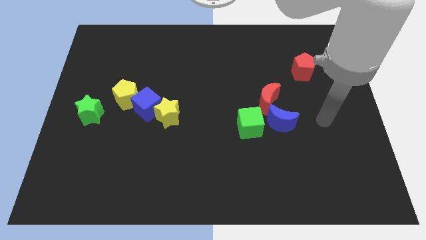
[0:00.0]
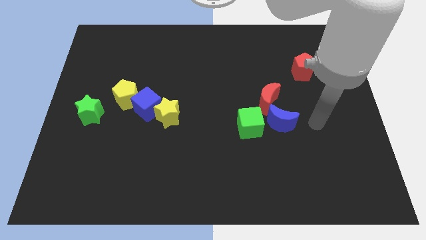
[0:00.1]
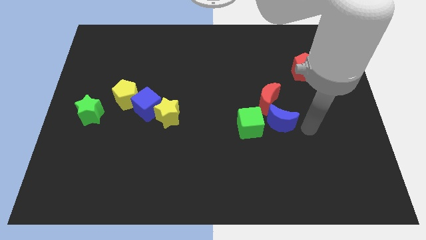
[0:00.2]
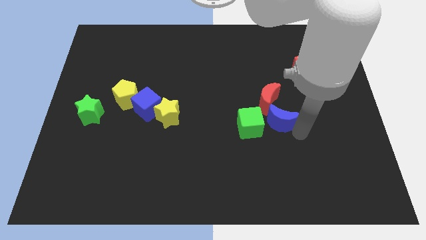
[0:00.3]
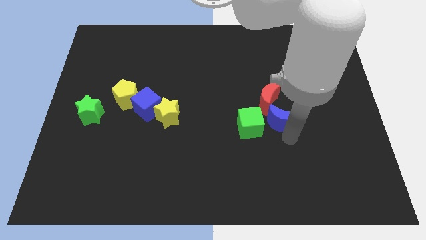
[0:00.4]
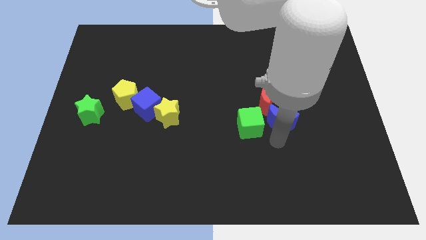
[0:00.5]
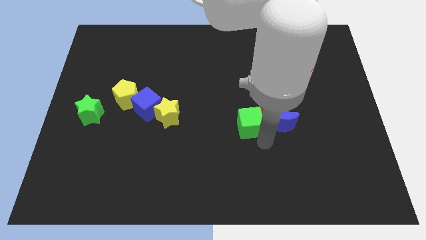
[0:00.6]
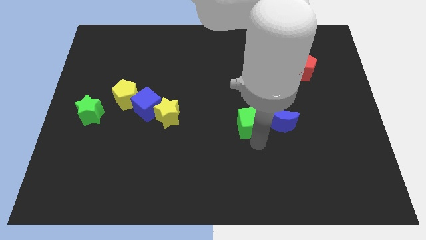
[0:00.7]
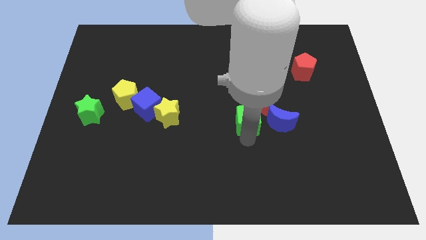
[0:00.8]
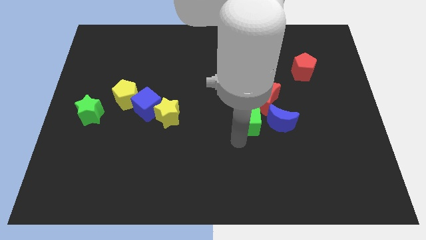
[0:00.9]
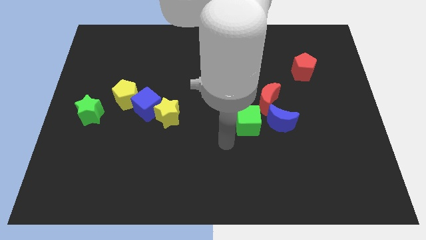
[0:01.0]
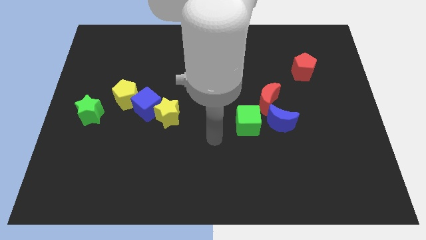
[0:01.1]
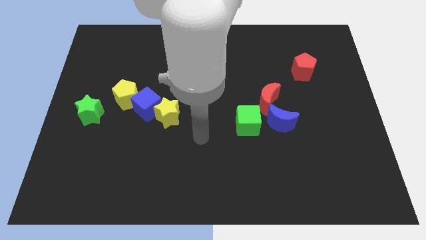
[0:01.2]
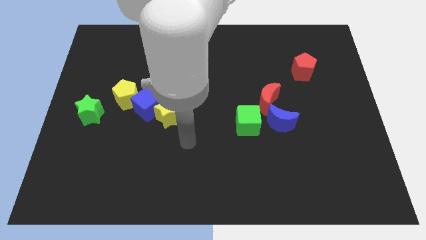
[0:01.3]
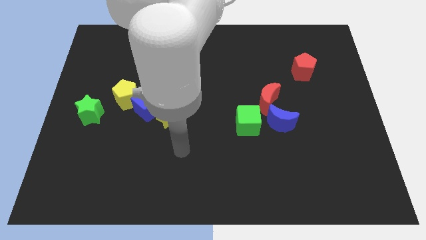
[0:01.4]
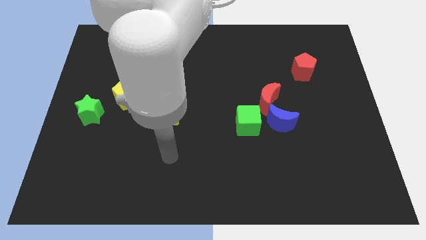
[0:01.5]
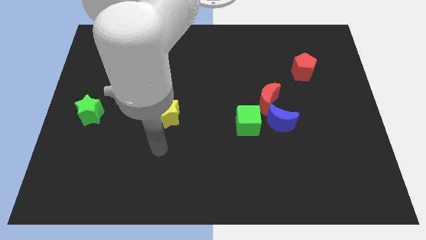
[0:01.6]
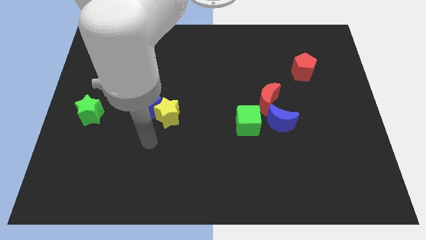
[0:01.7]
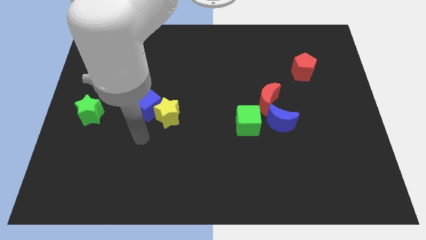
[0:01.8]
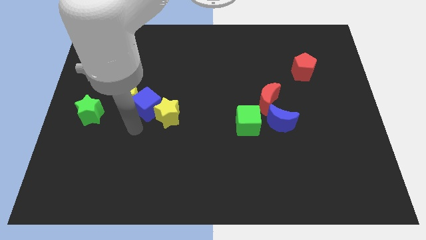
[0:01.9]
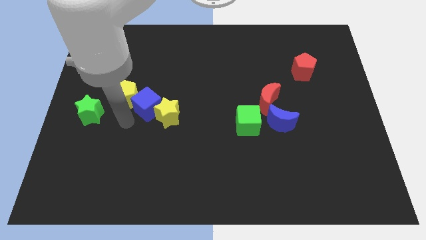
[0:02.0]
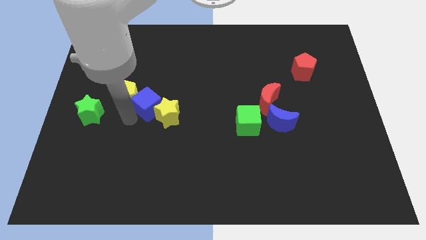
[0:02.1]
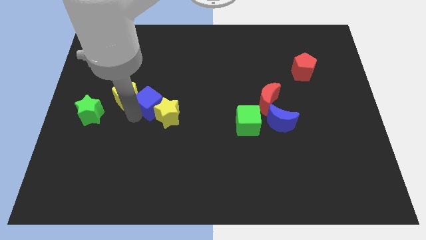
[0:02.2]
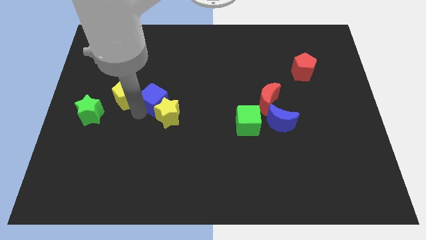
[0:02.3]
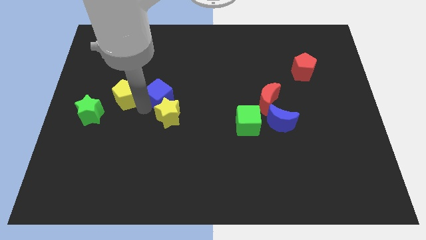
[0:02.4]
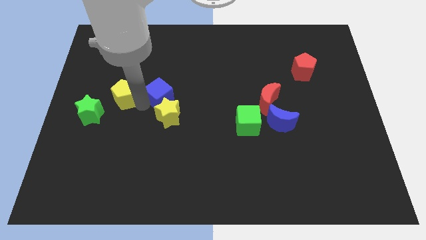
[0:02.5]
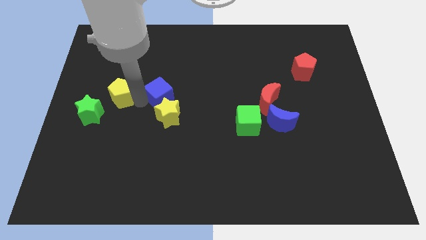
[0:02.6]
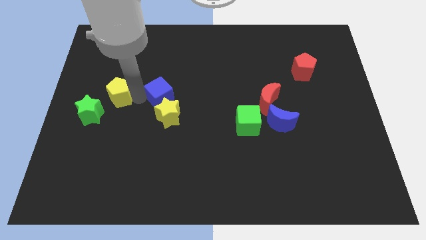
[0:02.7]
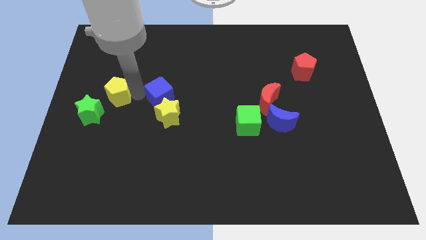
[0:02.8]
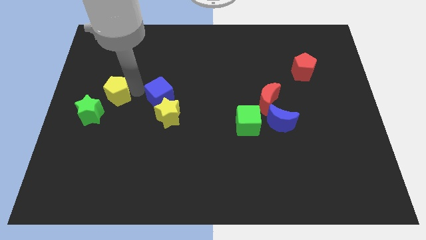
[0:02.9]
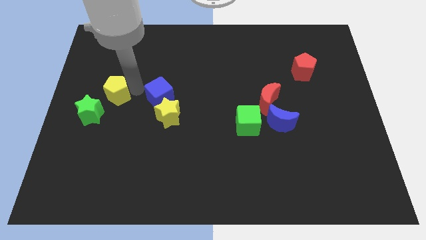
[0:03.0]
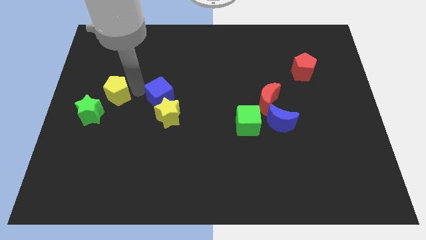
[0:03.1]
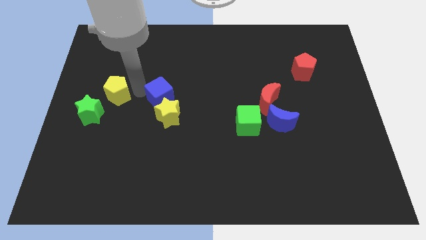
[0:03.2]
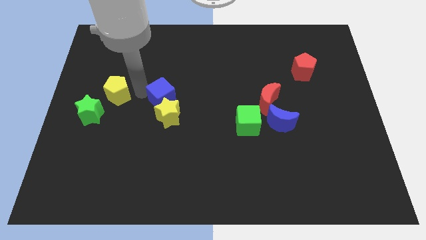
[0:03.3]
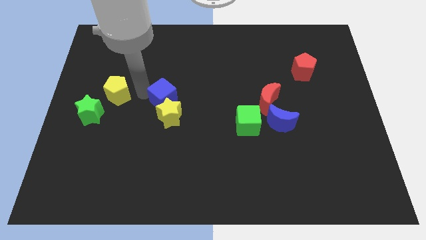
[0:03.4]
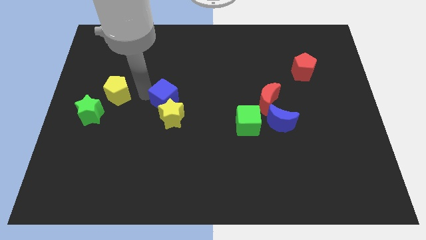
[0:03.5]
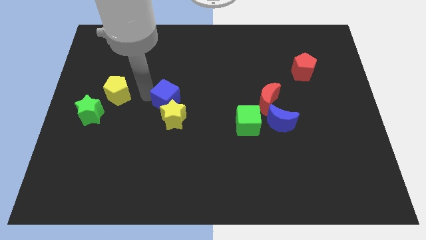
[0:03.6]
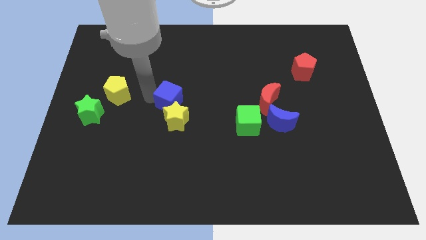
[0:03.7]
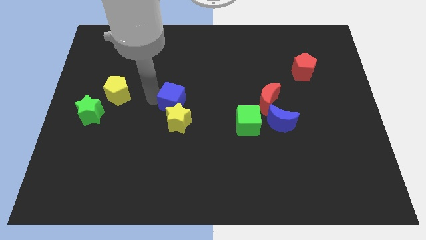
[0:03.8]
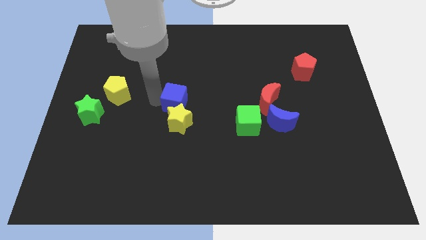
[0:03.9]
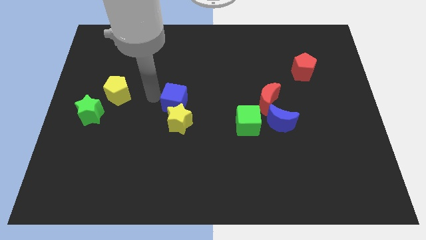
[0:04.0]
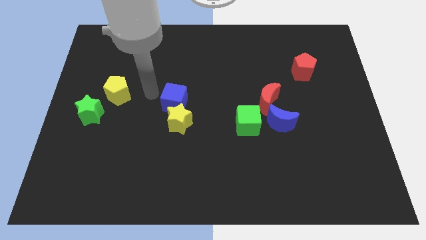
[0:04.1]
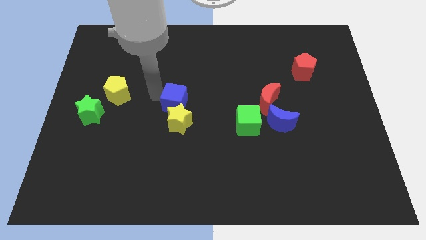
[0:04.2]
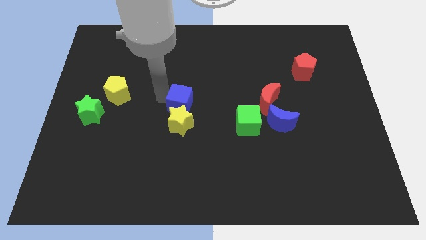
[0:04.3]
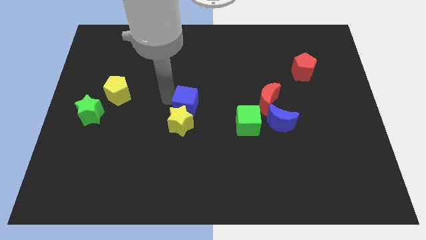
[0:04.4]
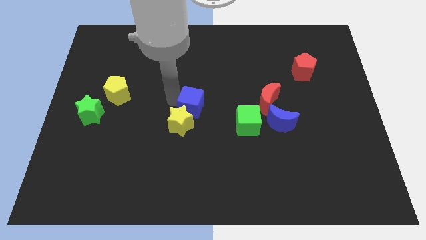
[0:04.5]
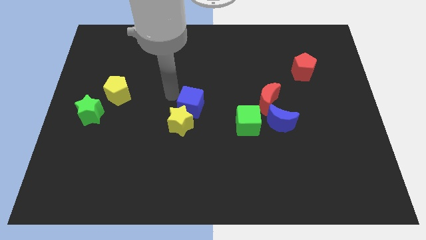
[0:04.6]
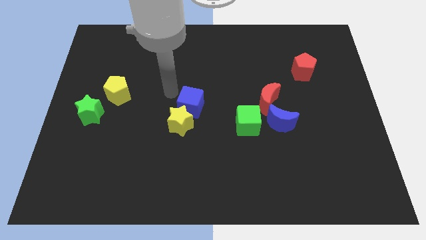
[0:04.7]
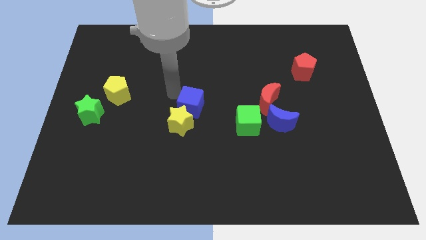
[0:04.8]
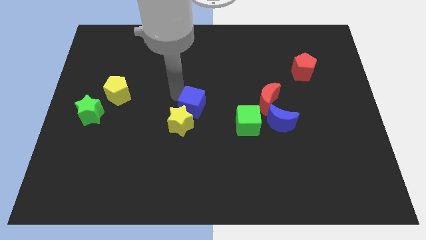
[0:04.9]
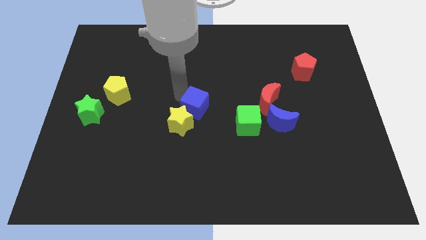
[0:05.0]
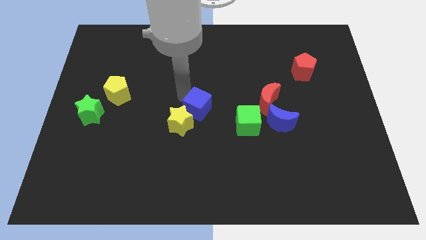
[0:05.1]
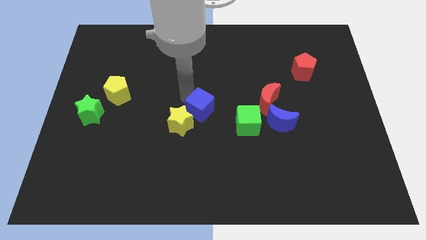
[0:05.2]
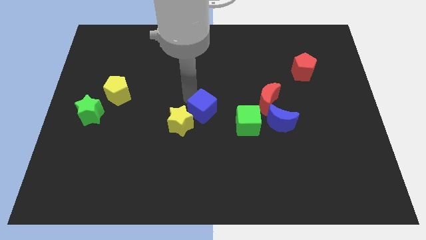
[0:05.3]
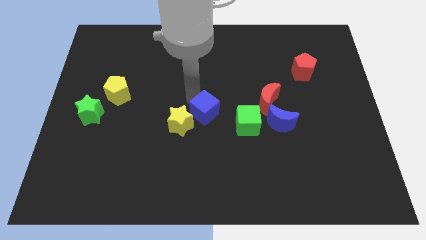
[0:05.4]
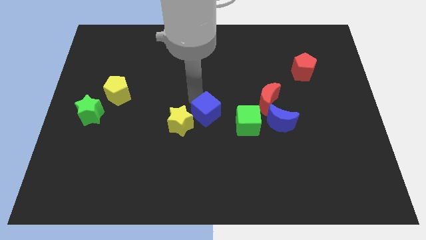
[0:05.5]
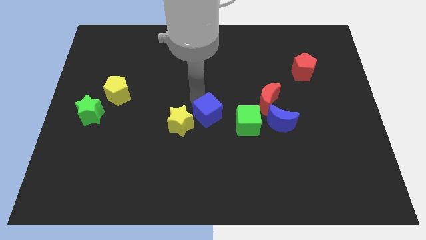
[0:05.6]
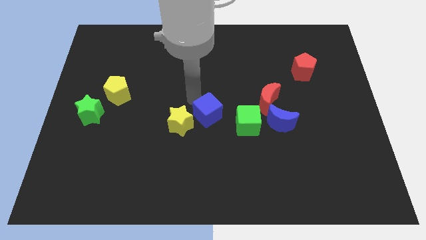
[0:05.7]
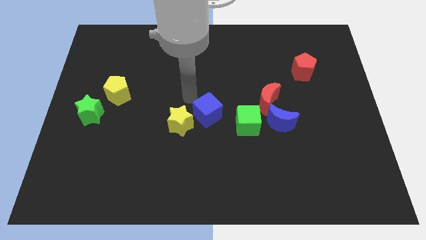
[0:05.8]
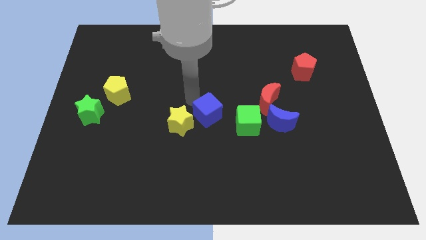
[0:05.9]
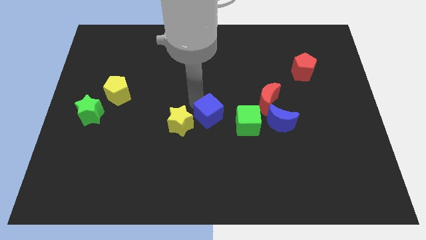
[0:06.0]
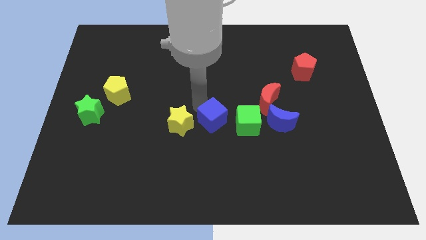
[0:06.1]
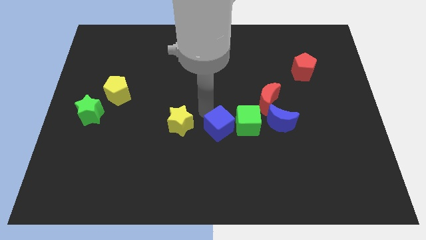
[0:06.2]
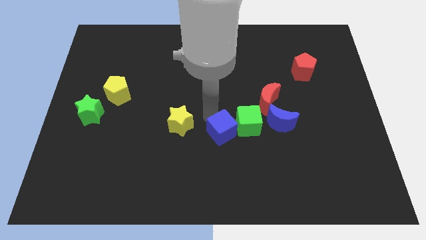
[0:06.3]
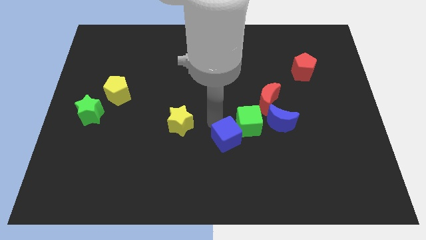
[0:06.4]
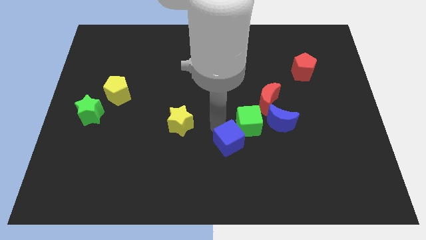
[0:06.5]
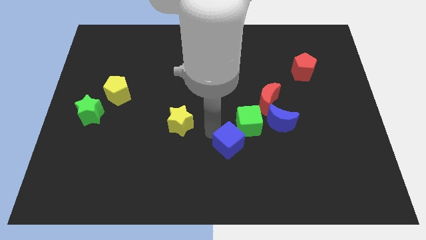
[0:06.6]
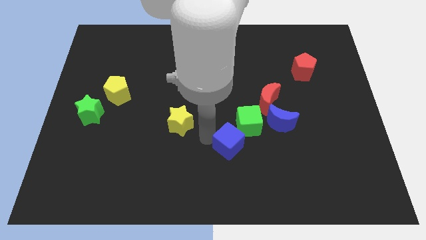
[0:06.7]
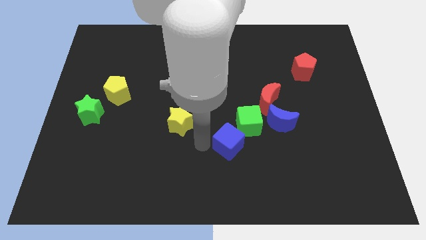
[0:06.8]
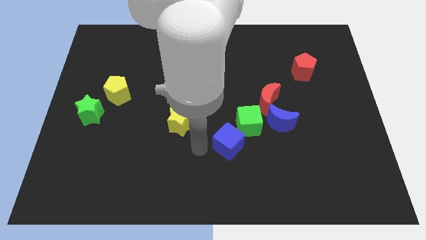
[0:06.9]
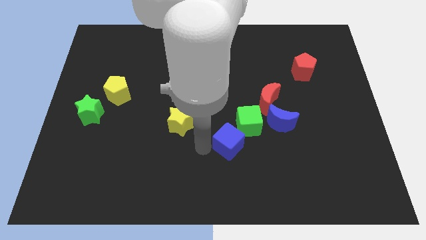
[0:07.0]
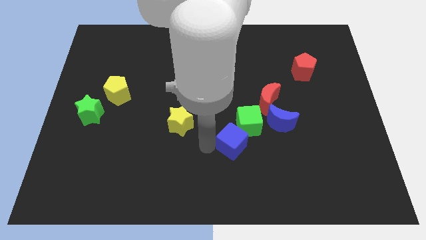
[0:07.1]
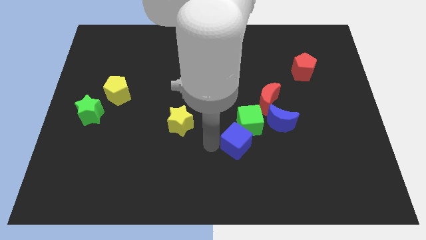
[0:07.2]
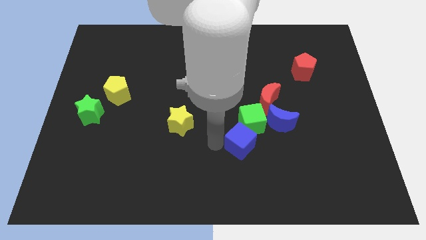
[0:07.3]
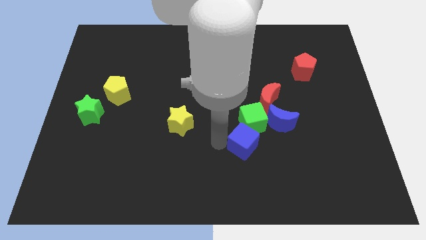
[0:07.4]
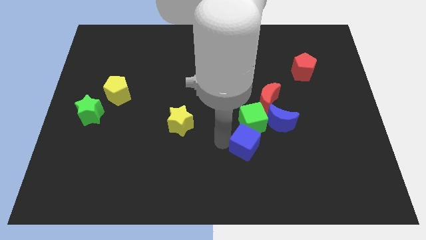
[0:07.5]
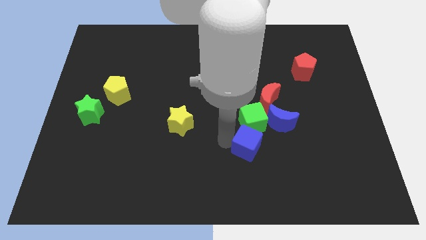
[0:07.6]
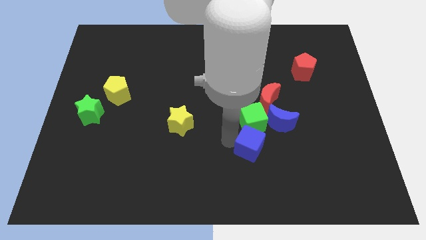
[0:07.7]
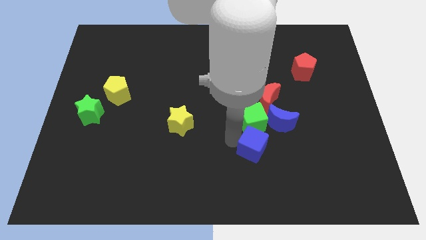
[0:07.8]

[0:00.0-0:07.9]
move the blue cube below the red moon
